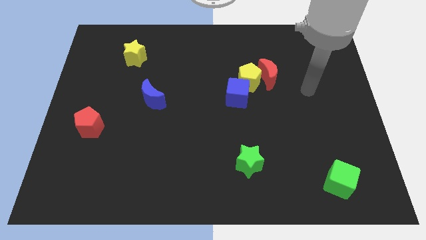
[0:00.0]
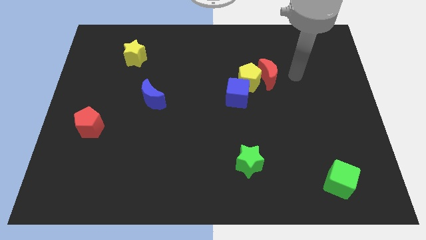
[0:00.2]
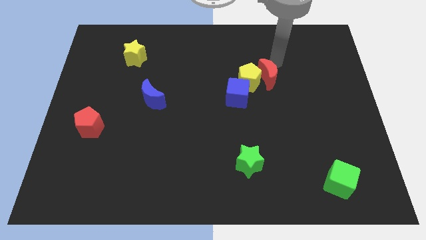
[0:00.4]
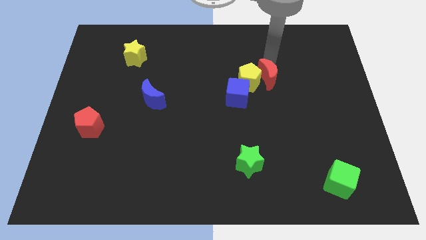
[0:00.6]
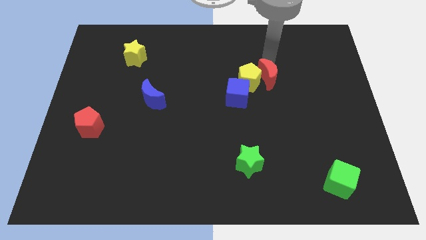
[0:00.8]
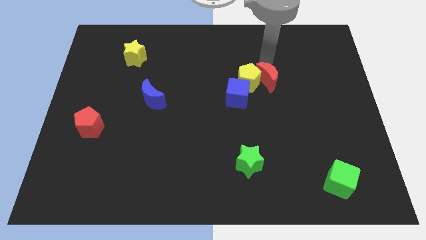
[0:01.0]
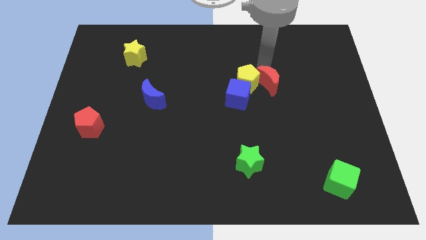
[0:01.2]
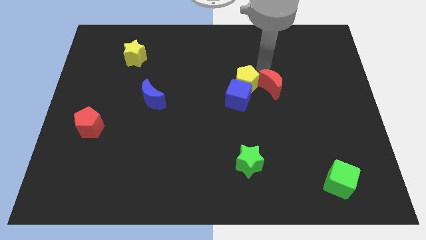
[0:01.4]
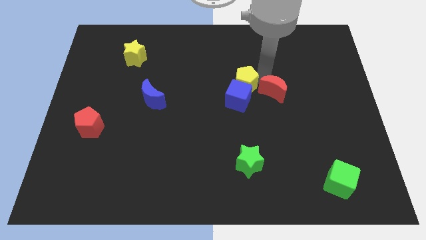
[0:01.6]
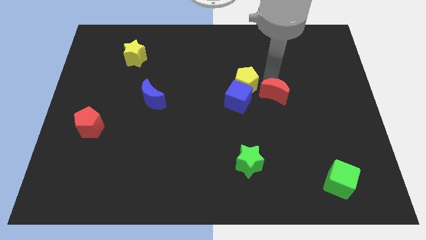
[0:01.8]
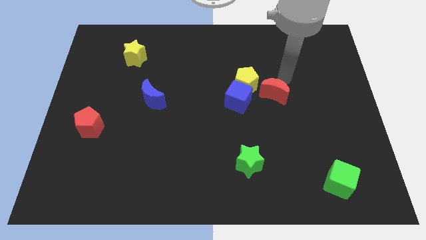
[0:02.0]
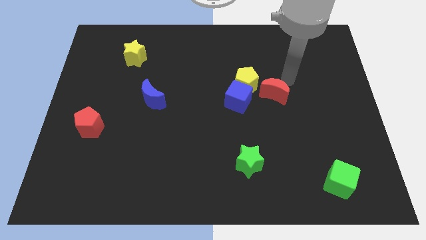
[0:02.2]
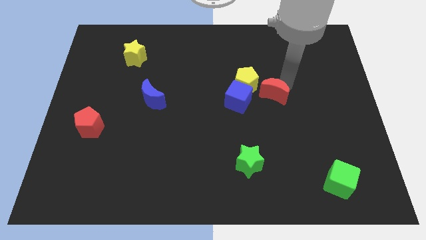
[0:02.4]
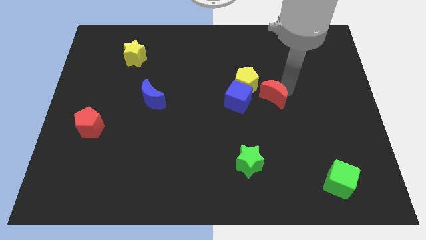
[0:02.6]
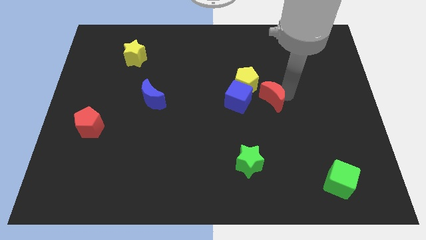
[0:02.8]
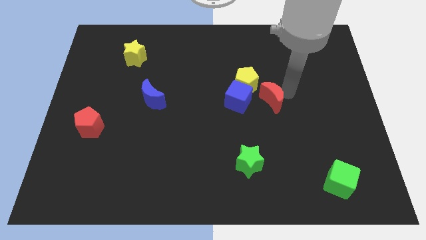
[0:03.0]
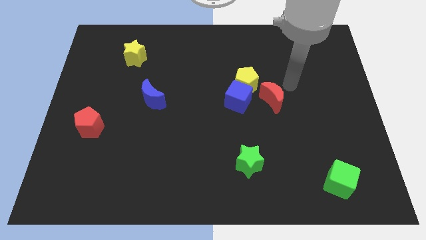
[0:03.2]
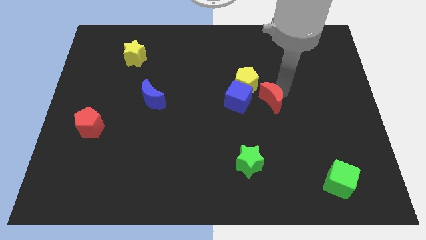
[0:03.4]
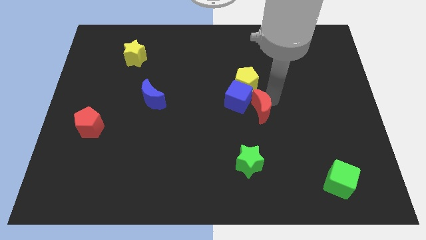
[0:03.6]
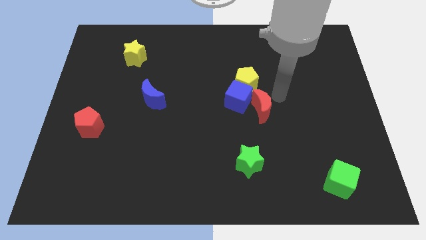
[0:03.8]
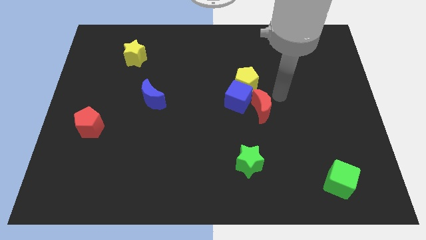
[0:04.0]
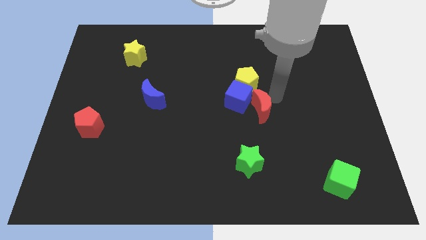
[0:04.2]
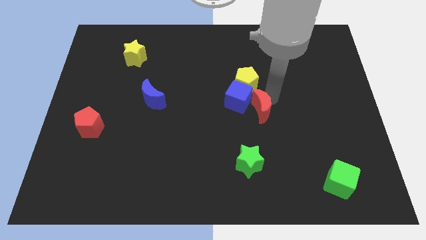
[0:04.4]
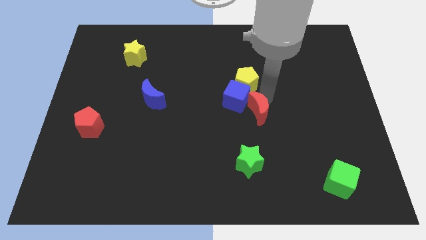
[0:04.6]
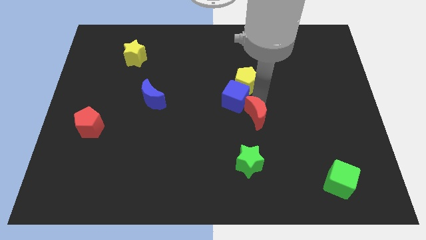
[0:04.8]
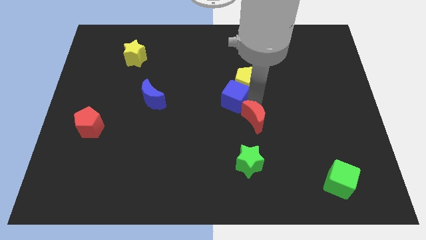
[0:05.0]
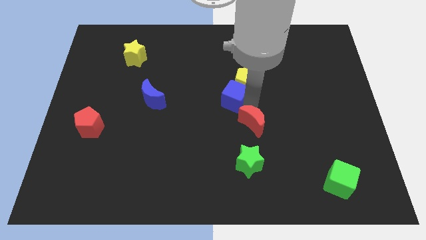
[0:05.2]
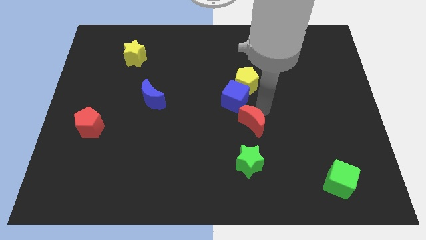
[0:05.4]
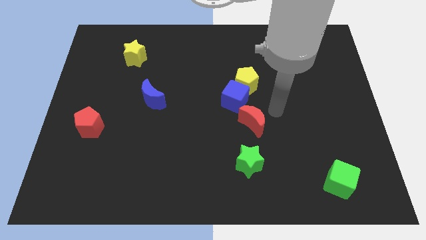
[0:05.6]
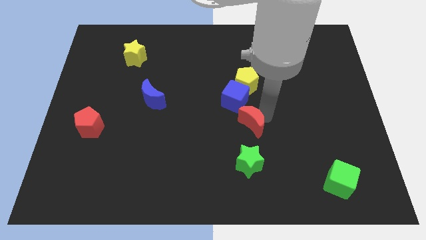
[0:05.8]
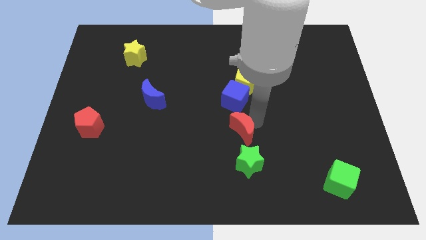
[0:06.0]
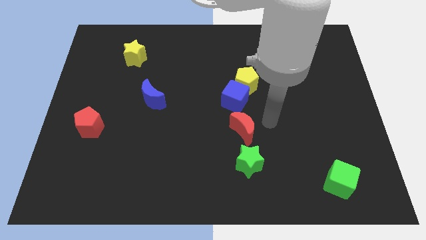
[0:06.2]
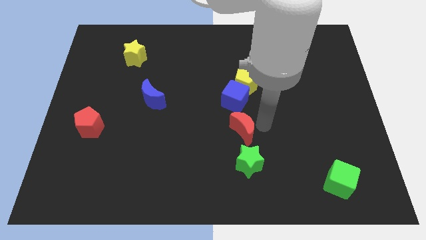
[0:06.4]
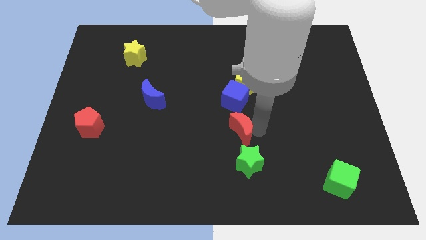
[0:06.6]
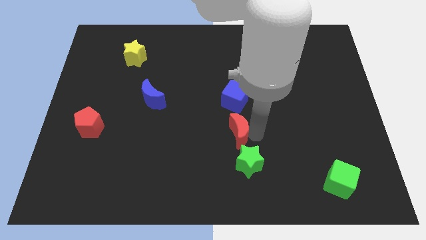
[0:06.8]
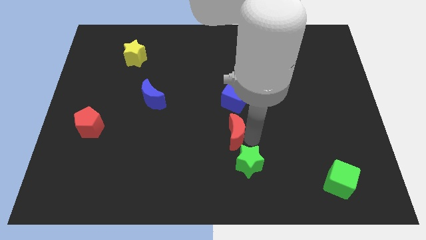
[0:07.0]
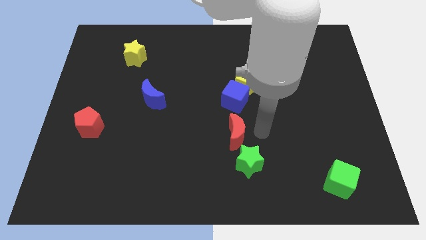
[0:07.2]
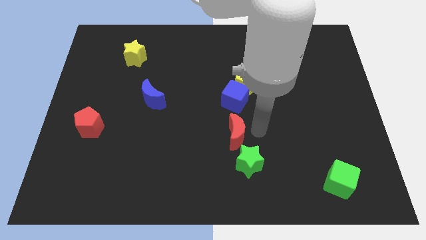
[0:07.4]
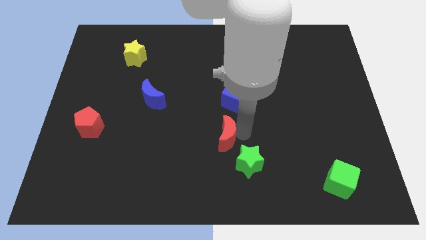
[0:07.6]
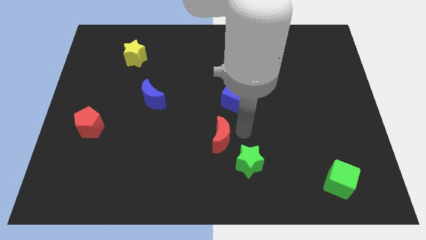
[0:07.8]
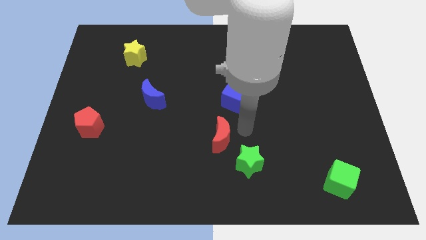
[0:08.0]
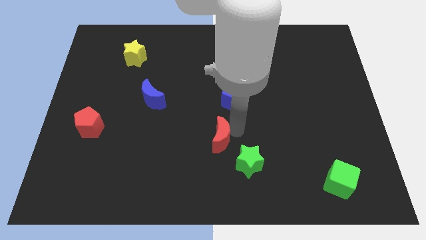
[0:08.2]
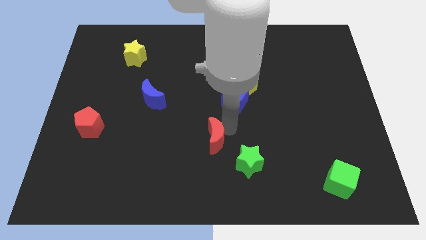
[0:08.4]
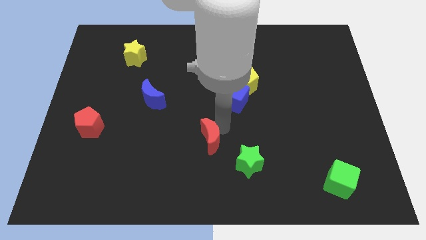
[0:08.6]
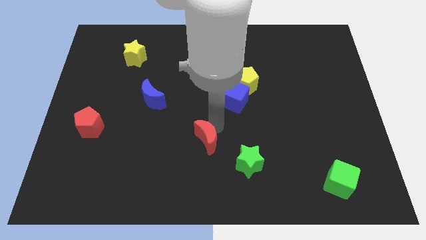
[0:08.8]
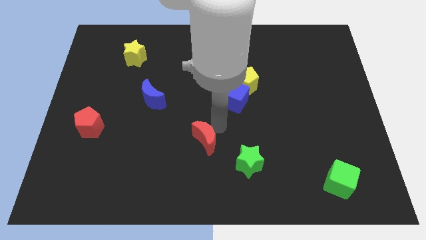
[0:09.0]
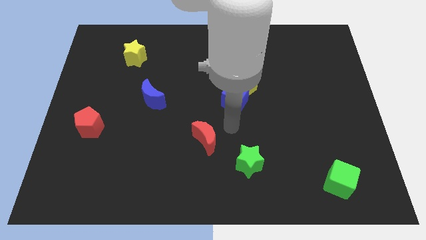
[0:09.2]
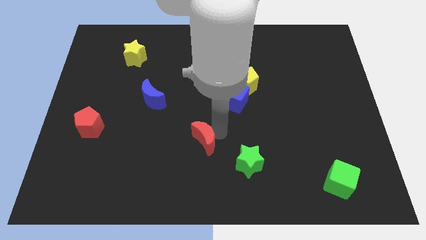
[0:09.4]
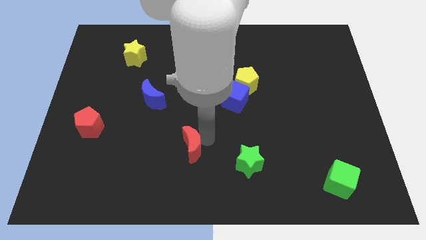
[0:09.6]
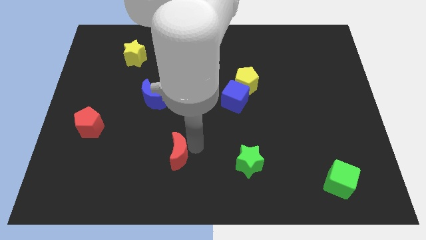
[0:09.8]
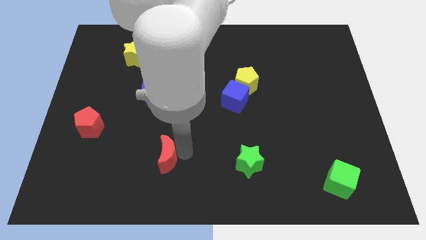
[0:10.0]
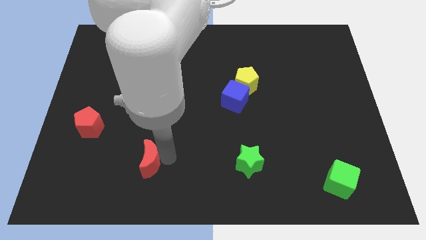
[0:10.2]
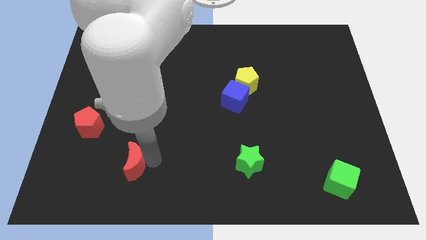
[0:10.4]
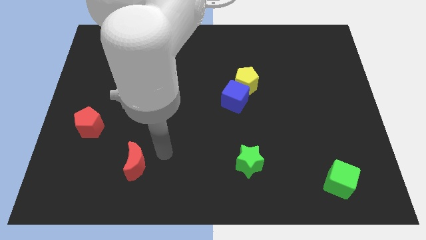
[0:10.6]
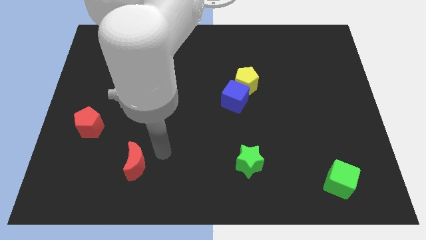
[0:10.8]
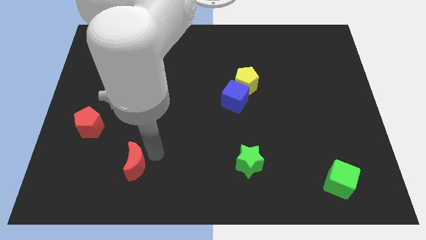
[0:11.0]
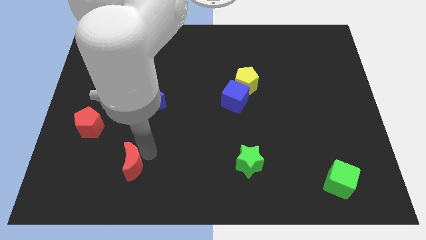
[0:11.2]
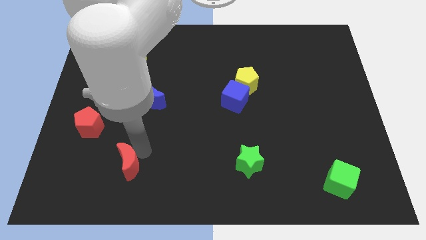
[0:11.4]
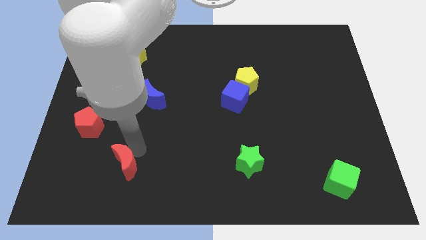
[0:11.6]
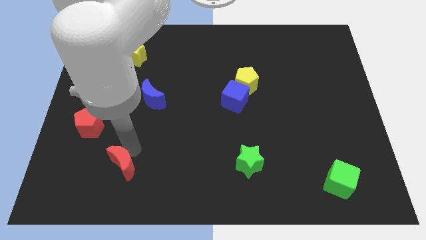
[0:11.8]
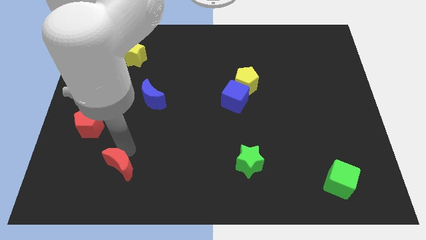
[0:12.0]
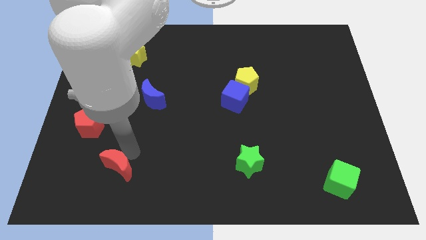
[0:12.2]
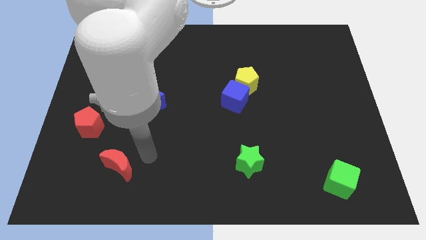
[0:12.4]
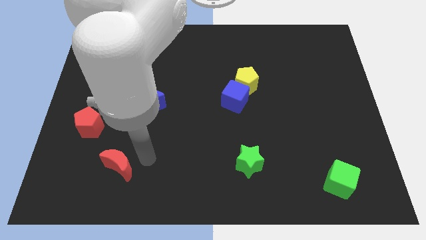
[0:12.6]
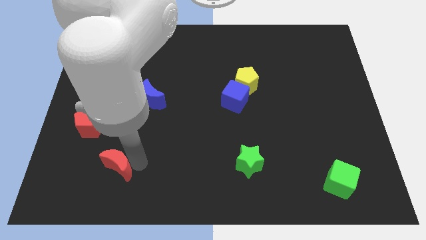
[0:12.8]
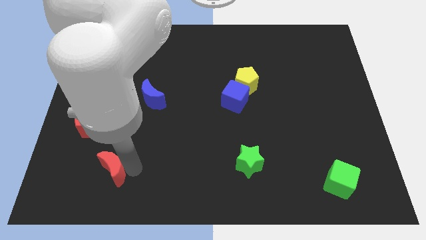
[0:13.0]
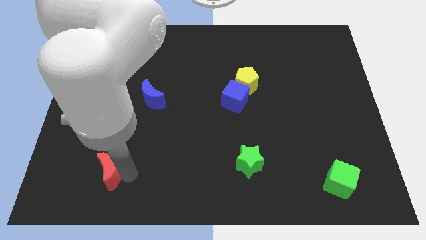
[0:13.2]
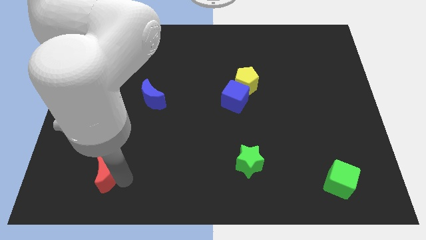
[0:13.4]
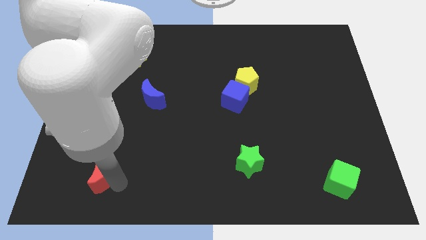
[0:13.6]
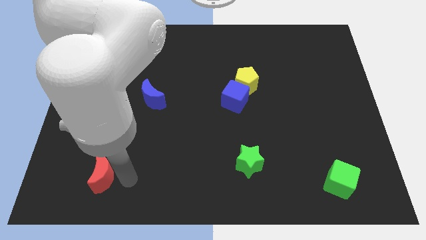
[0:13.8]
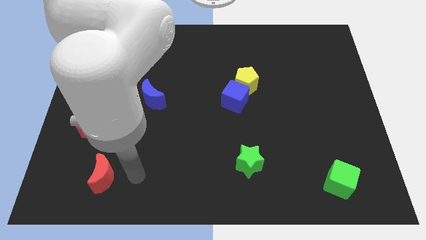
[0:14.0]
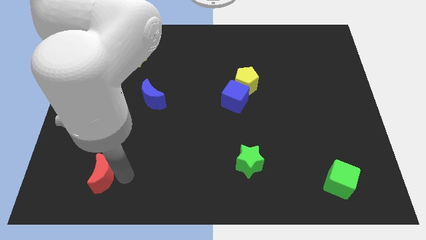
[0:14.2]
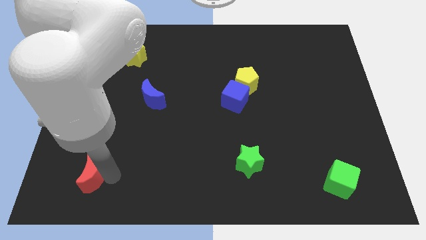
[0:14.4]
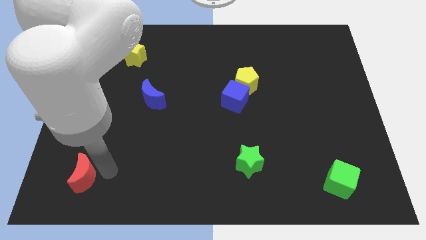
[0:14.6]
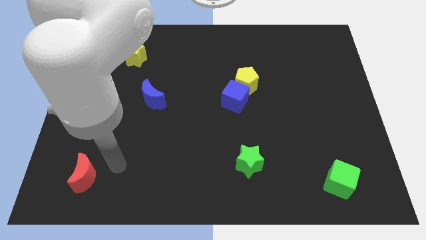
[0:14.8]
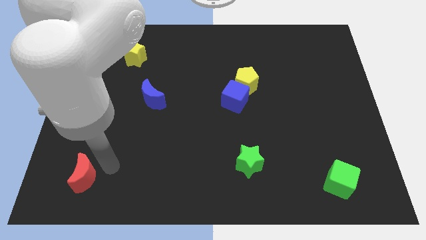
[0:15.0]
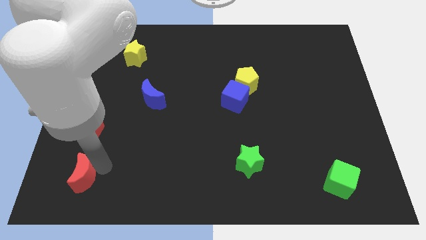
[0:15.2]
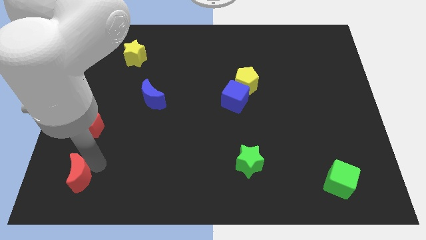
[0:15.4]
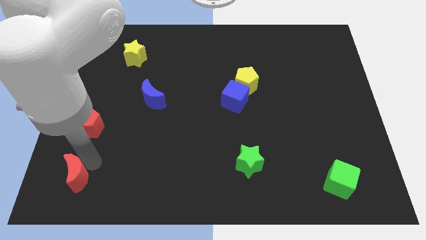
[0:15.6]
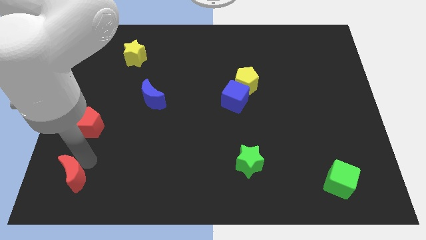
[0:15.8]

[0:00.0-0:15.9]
slide the red moon to the bottom left of the board

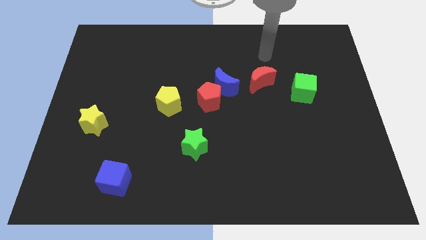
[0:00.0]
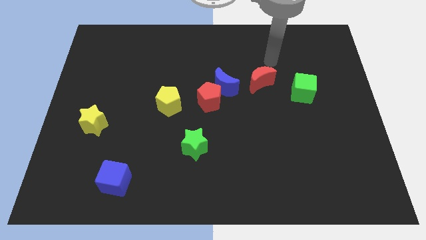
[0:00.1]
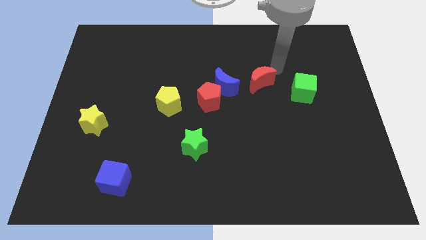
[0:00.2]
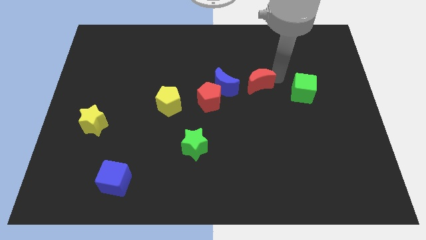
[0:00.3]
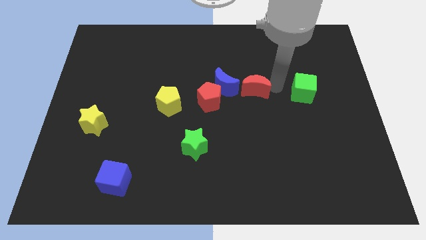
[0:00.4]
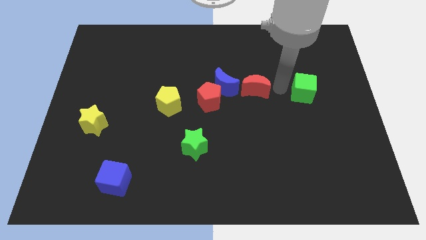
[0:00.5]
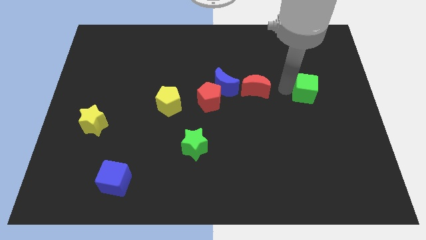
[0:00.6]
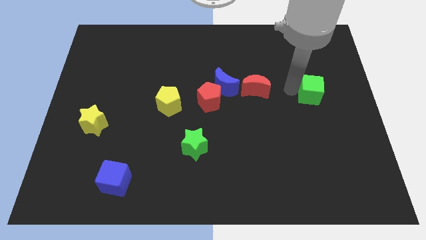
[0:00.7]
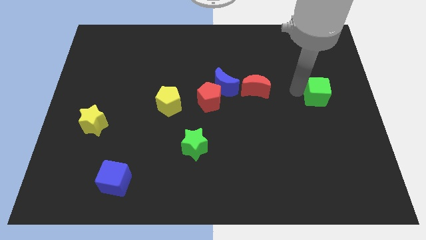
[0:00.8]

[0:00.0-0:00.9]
put the green cube to the right side of the board
